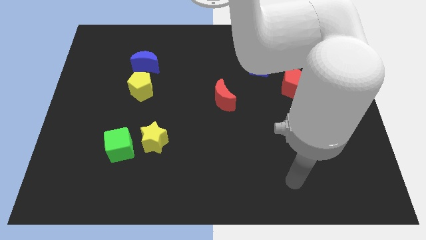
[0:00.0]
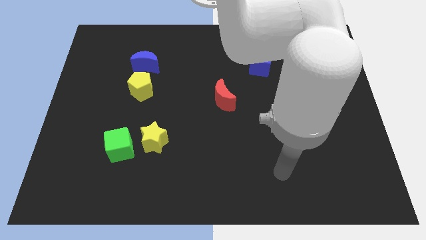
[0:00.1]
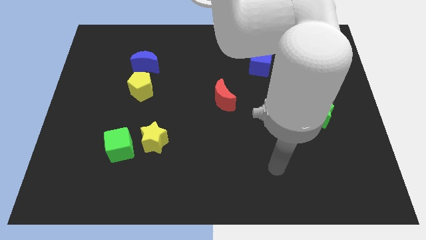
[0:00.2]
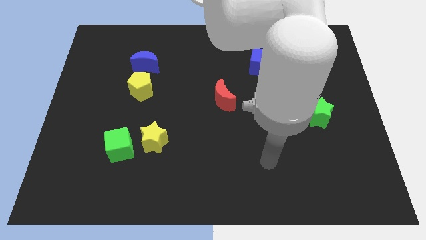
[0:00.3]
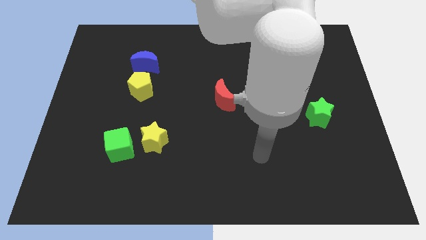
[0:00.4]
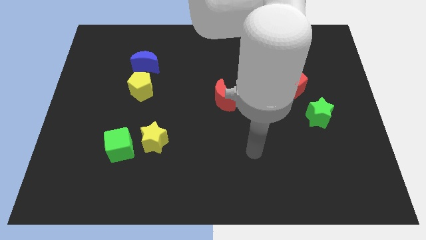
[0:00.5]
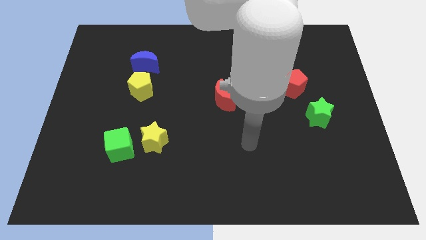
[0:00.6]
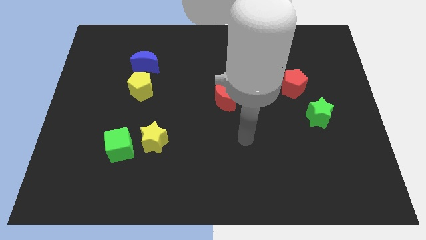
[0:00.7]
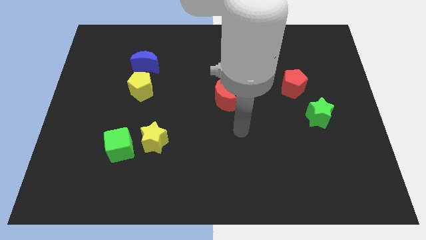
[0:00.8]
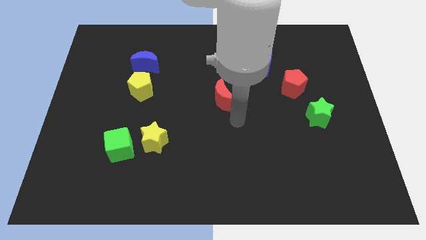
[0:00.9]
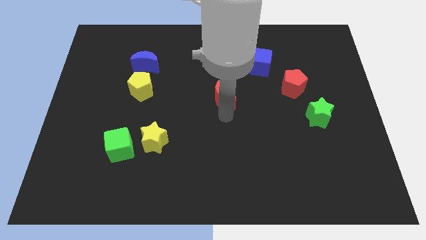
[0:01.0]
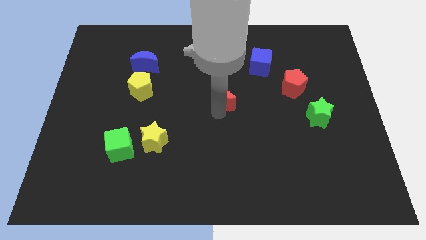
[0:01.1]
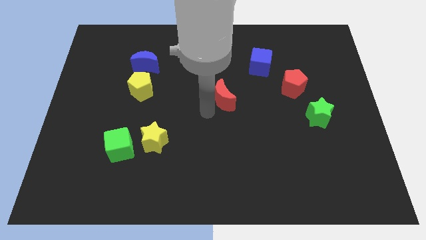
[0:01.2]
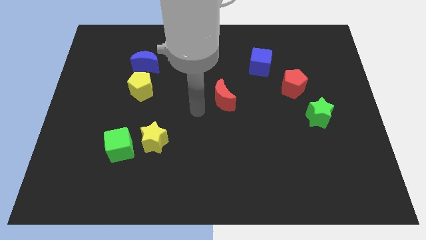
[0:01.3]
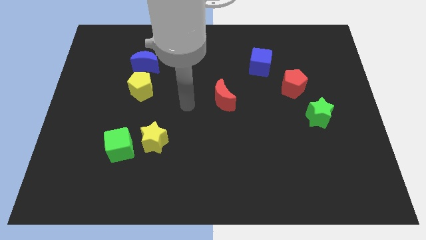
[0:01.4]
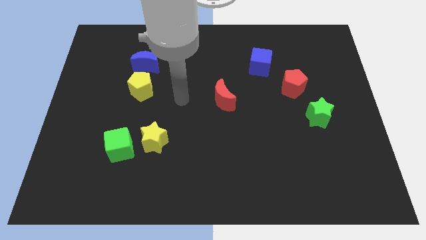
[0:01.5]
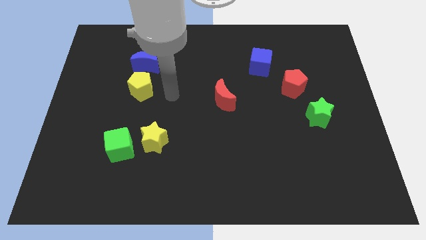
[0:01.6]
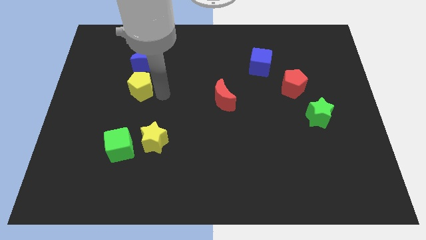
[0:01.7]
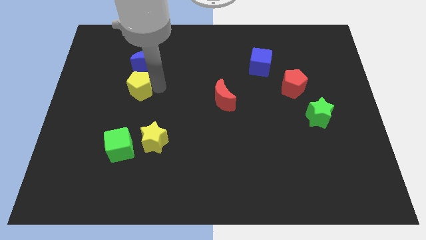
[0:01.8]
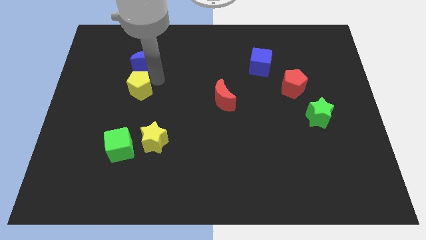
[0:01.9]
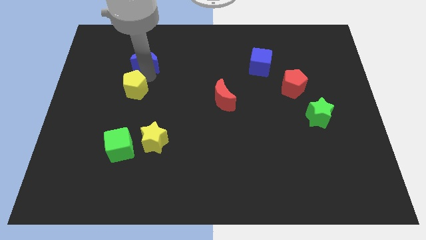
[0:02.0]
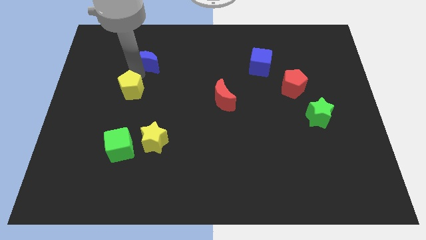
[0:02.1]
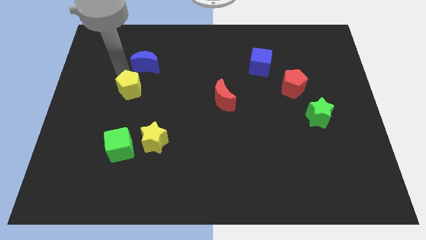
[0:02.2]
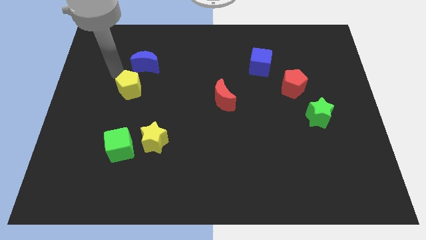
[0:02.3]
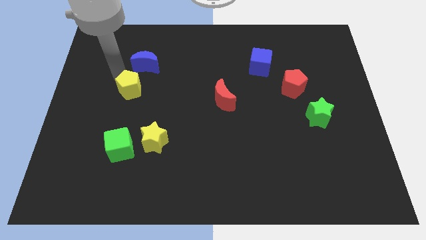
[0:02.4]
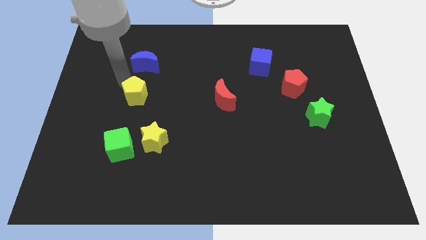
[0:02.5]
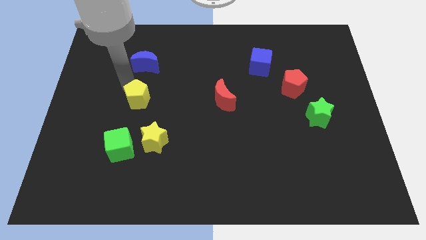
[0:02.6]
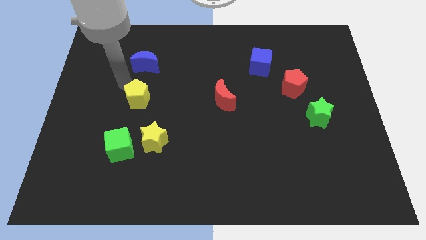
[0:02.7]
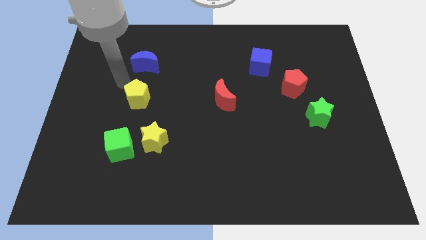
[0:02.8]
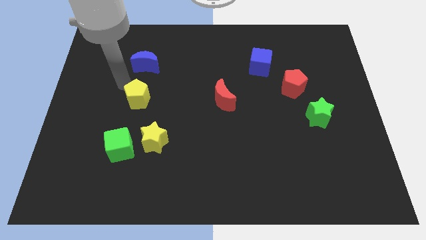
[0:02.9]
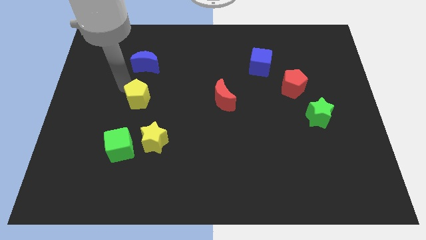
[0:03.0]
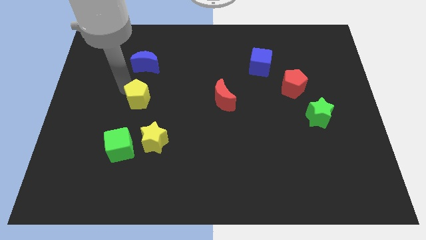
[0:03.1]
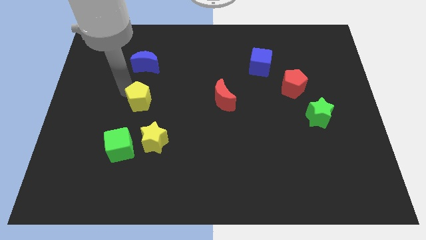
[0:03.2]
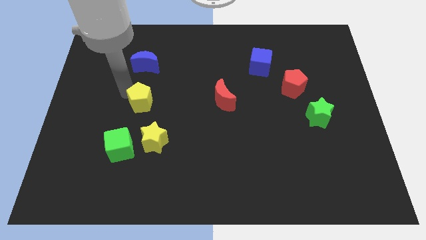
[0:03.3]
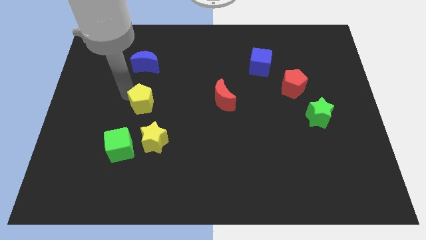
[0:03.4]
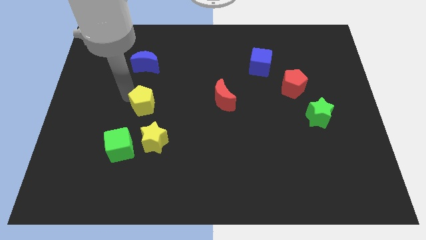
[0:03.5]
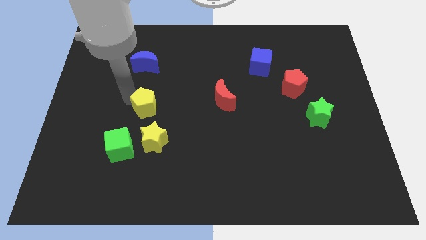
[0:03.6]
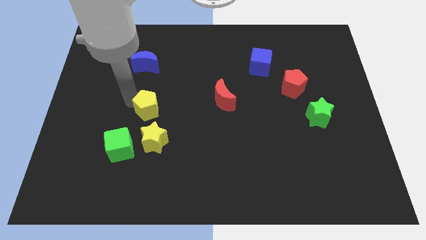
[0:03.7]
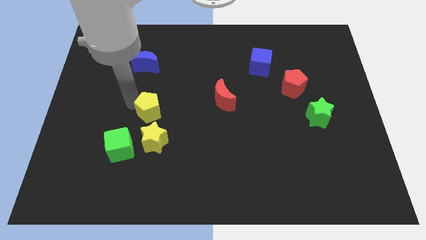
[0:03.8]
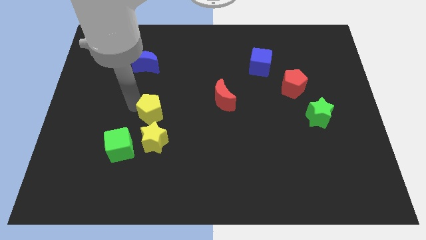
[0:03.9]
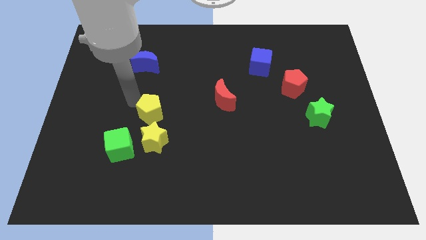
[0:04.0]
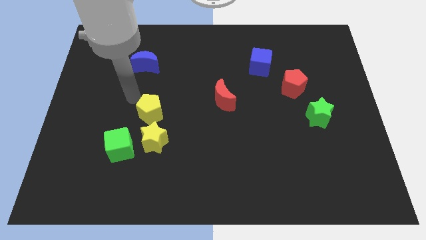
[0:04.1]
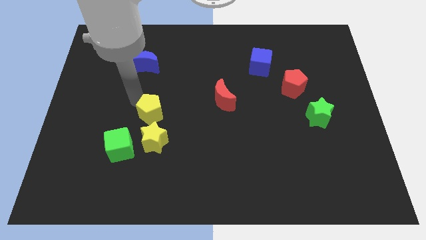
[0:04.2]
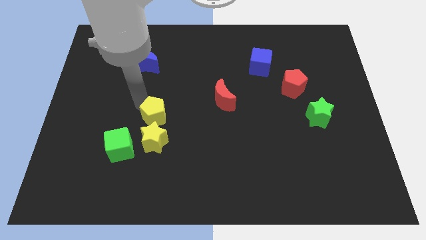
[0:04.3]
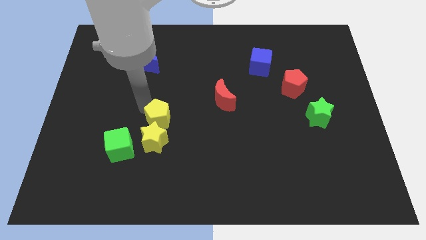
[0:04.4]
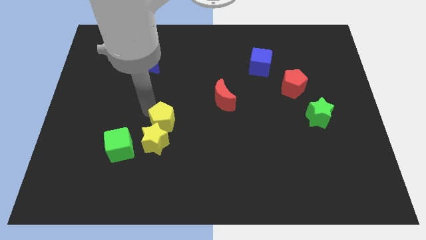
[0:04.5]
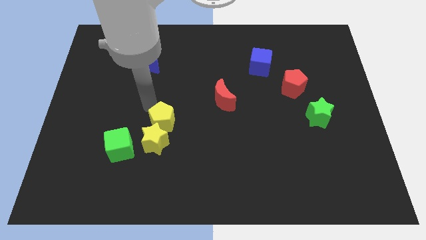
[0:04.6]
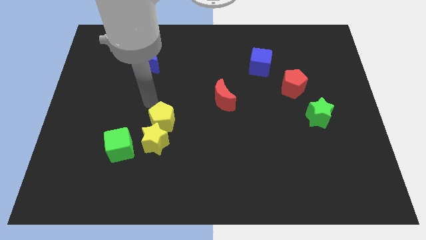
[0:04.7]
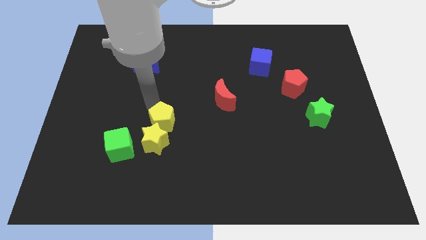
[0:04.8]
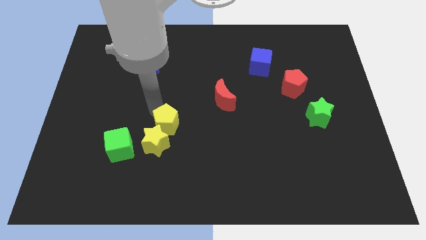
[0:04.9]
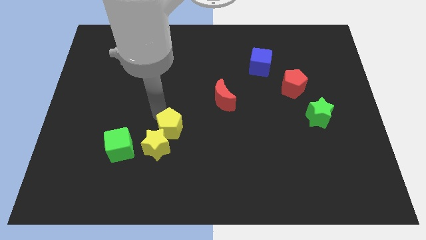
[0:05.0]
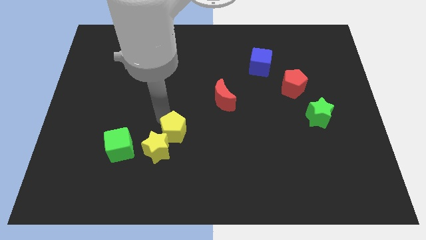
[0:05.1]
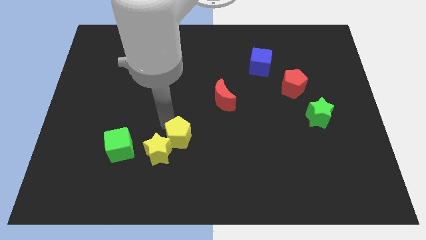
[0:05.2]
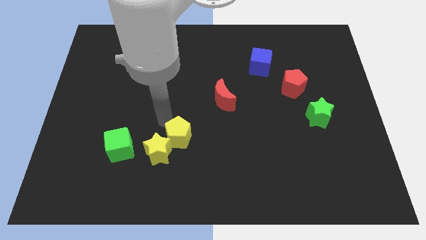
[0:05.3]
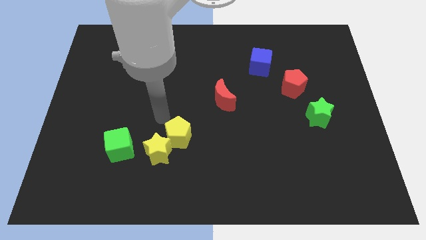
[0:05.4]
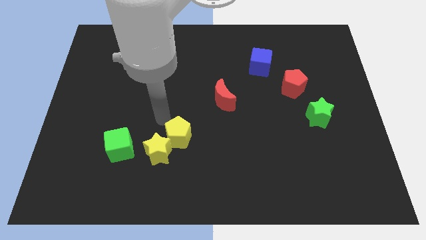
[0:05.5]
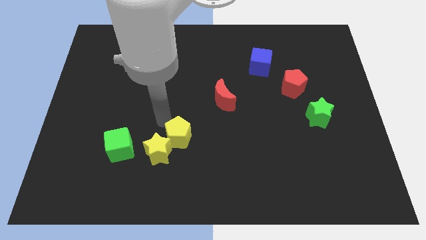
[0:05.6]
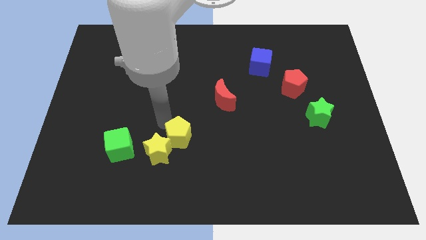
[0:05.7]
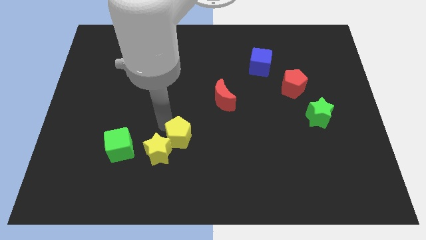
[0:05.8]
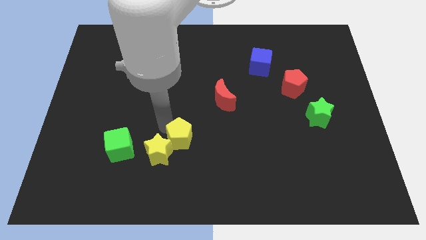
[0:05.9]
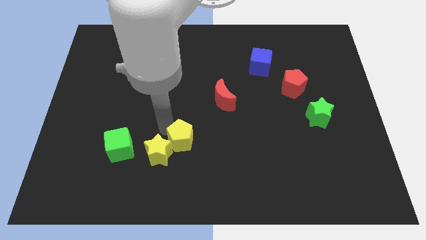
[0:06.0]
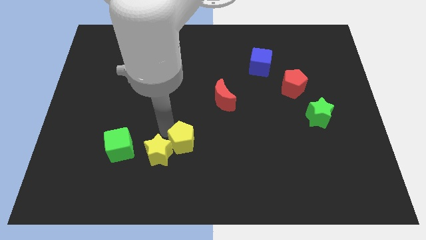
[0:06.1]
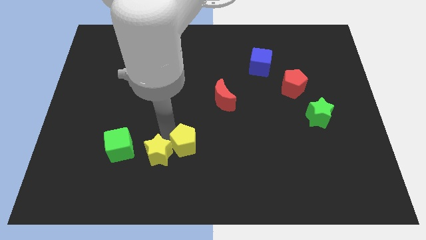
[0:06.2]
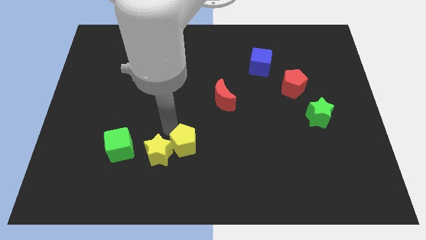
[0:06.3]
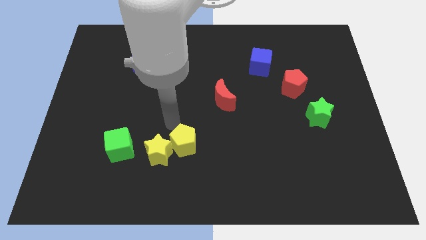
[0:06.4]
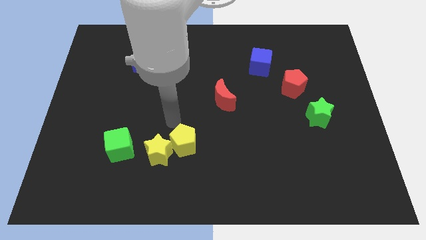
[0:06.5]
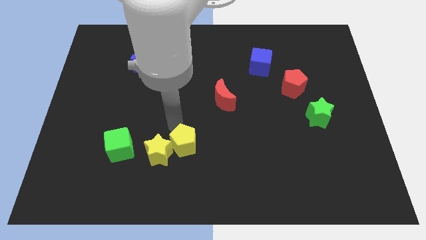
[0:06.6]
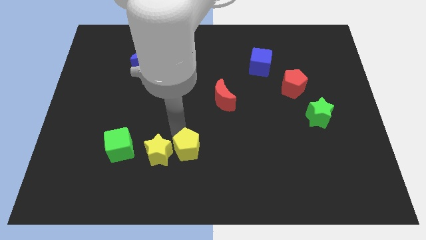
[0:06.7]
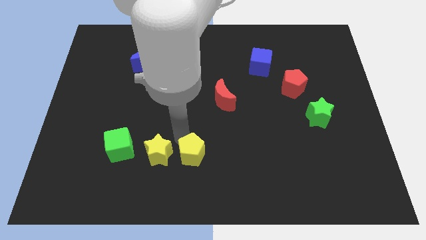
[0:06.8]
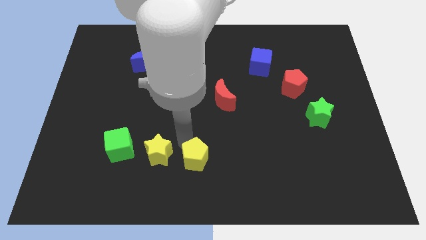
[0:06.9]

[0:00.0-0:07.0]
slide the yellow pentagon to the bottom
